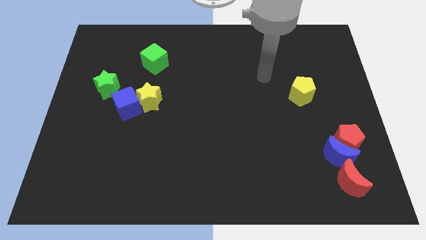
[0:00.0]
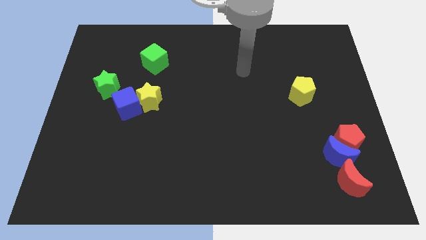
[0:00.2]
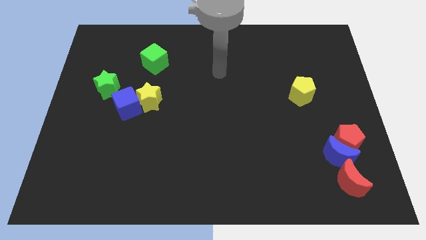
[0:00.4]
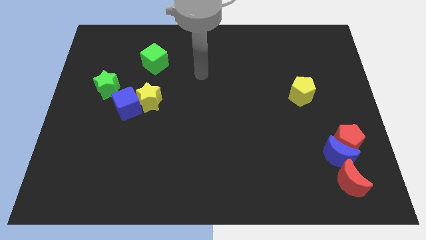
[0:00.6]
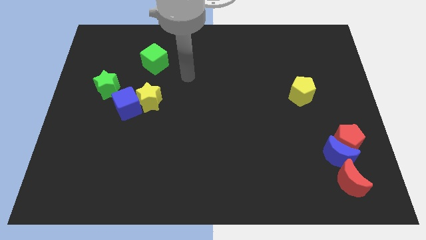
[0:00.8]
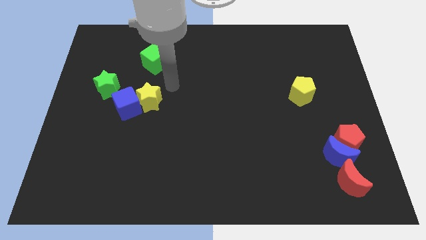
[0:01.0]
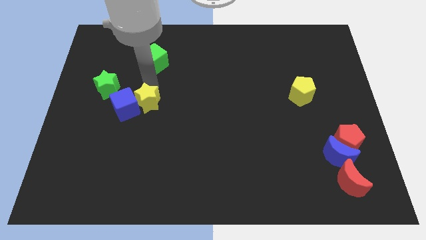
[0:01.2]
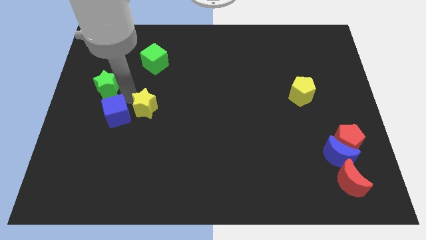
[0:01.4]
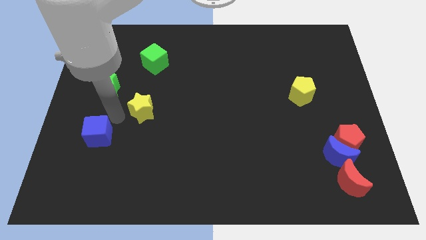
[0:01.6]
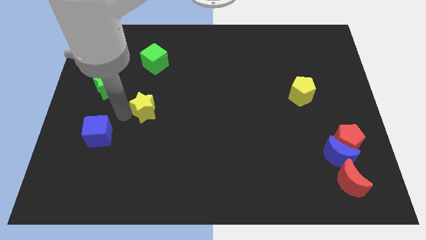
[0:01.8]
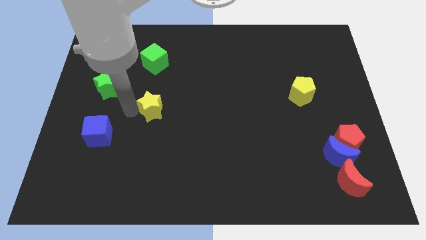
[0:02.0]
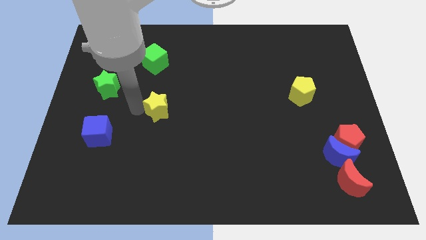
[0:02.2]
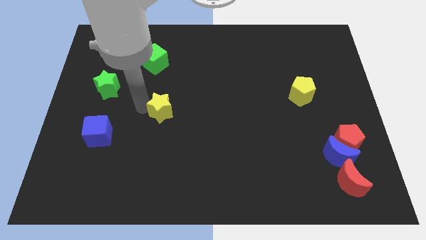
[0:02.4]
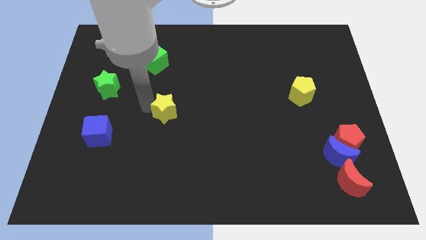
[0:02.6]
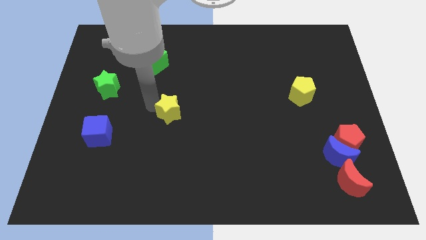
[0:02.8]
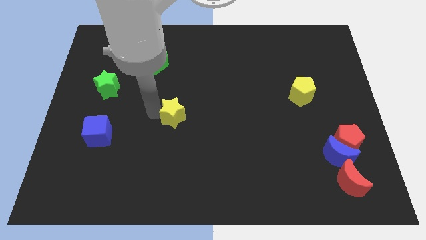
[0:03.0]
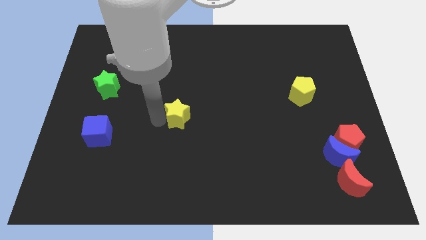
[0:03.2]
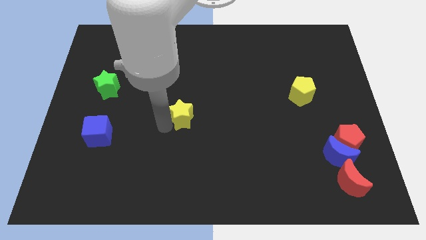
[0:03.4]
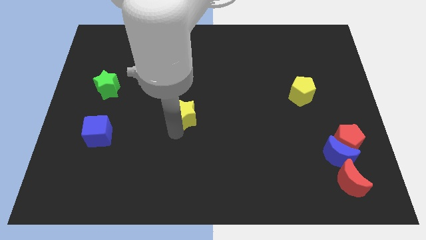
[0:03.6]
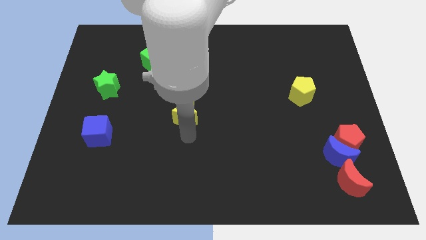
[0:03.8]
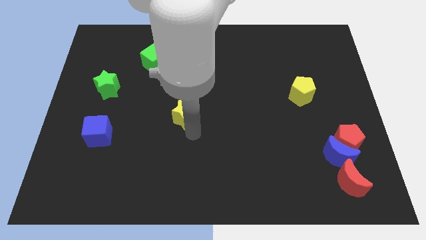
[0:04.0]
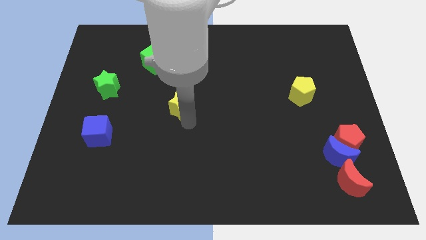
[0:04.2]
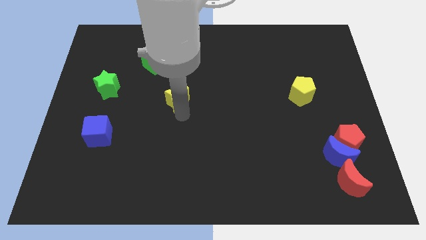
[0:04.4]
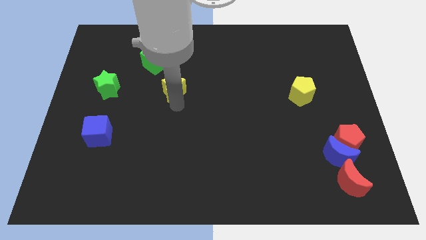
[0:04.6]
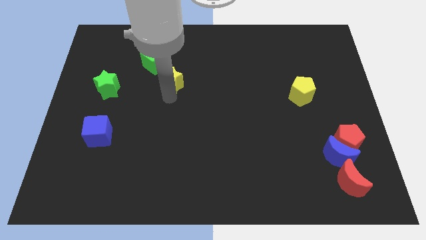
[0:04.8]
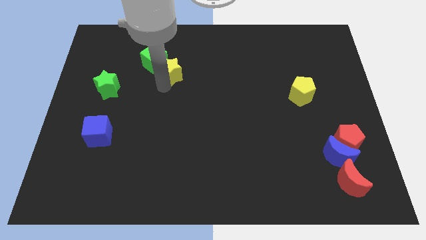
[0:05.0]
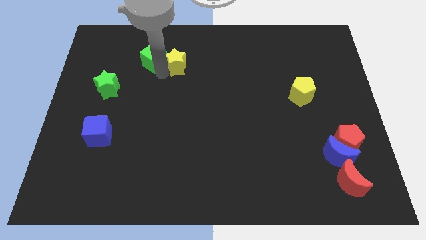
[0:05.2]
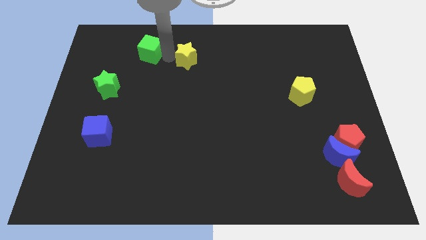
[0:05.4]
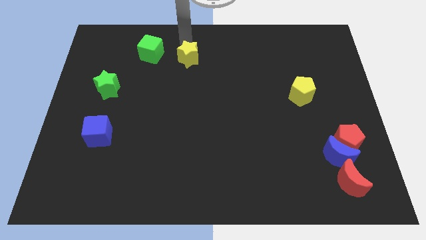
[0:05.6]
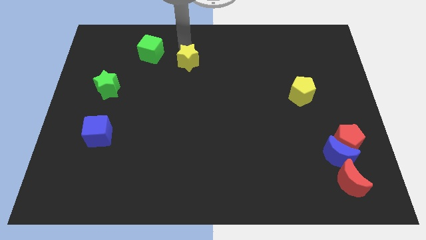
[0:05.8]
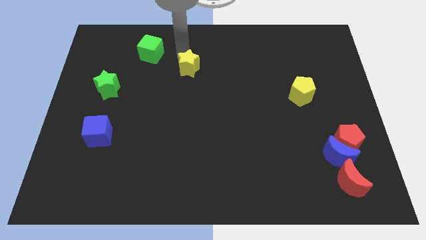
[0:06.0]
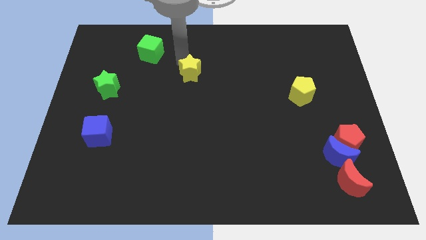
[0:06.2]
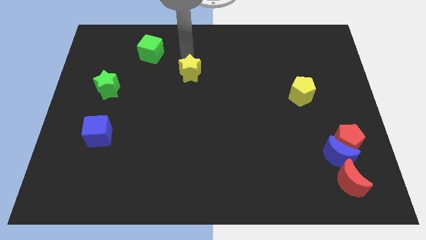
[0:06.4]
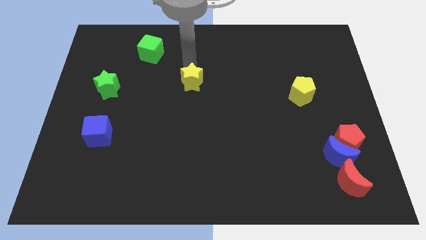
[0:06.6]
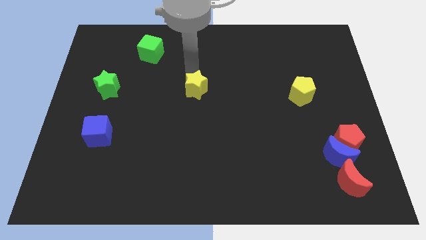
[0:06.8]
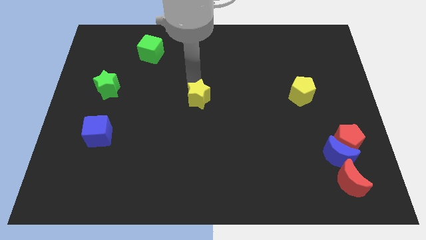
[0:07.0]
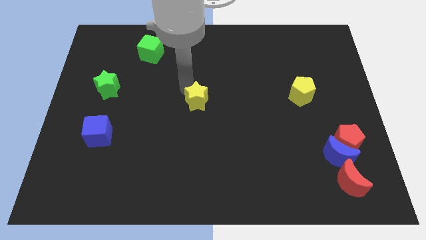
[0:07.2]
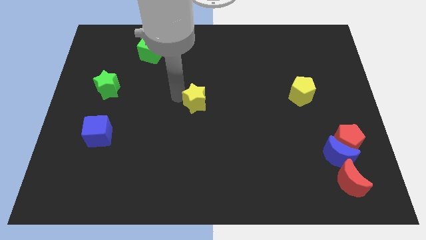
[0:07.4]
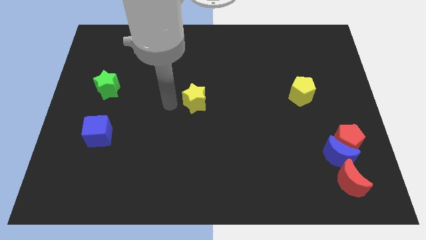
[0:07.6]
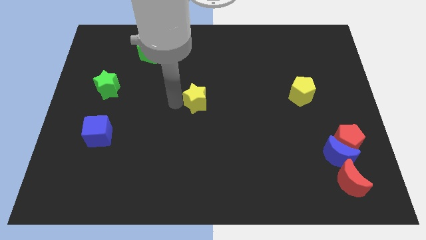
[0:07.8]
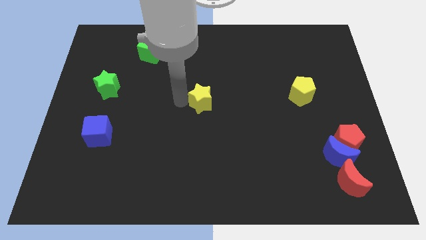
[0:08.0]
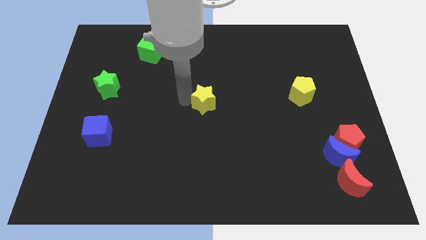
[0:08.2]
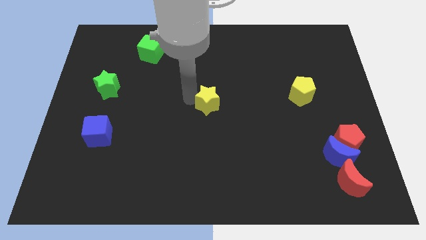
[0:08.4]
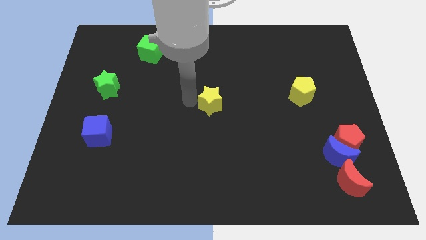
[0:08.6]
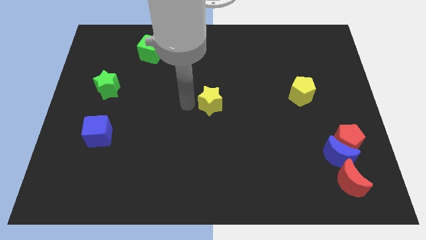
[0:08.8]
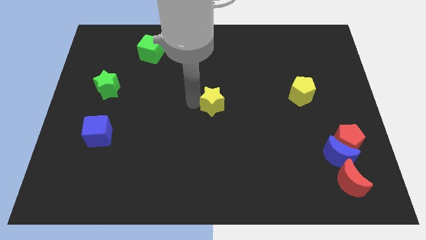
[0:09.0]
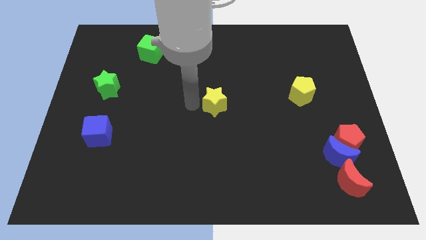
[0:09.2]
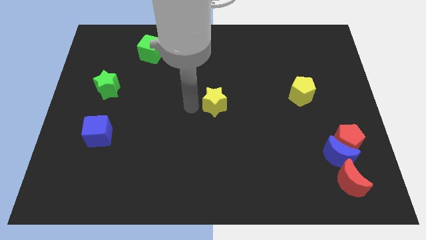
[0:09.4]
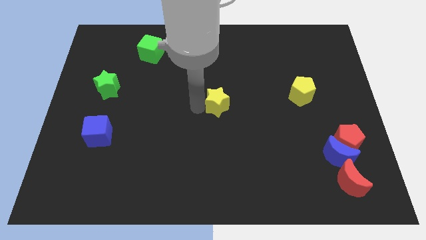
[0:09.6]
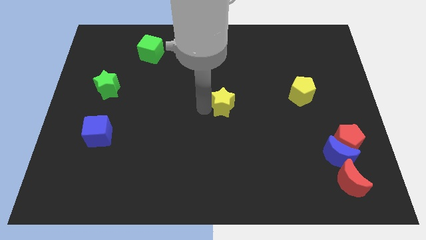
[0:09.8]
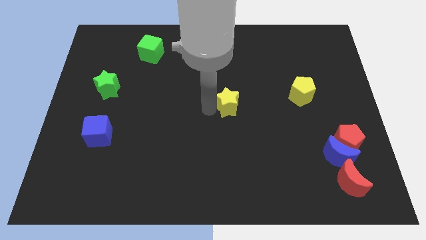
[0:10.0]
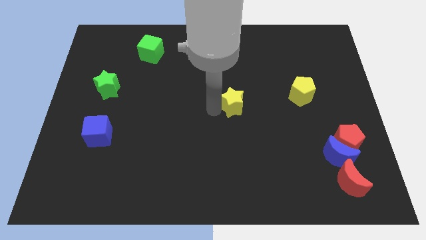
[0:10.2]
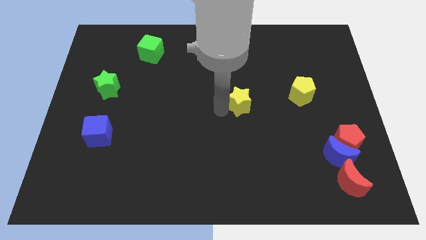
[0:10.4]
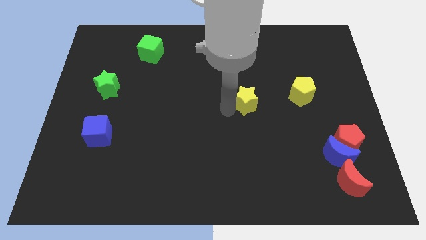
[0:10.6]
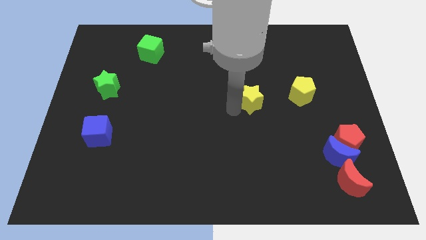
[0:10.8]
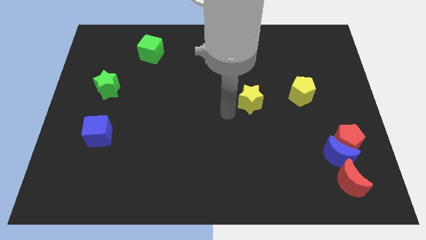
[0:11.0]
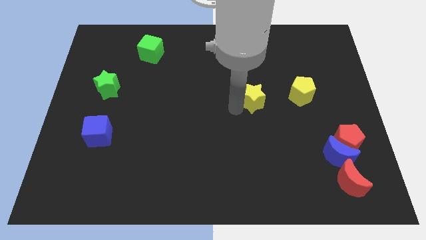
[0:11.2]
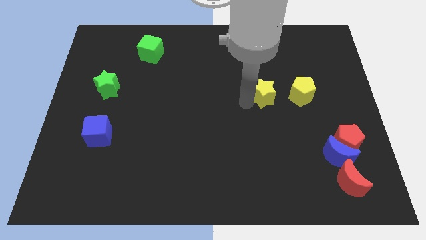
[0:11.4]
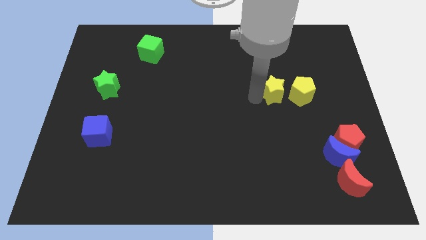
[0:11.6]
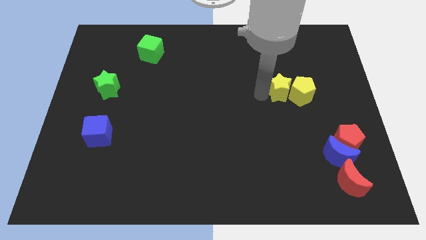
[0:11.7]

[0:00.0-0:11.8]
slide the yellow star next to the yellow pentagon
